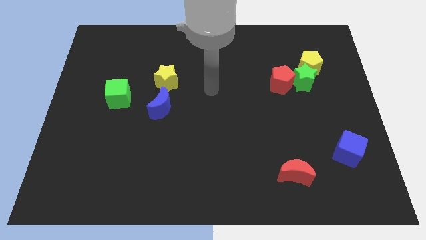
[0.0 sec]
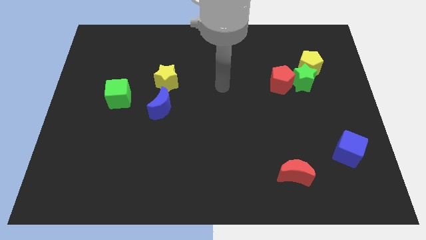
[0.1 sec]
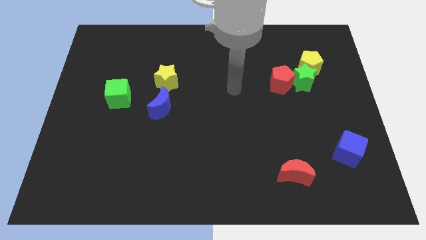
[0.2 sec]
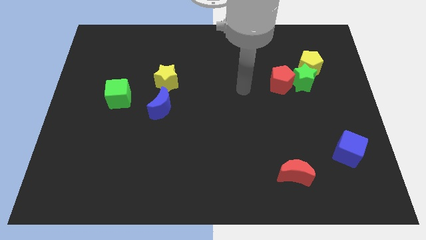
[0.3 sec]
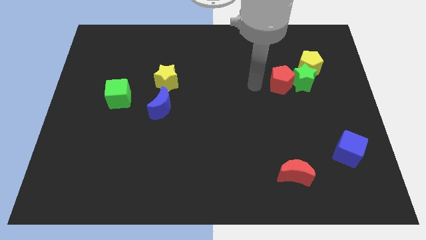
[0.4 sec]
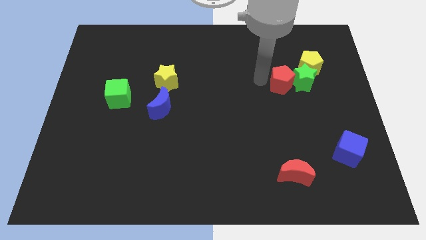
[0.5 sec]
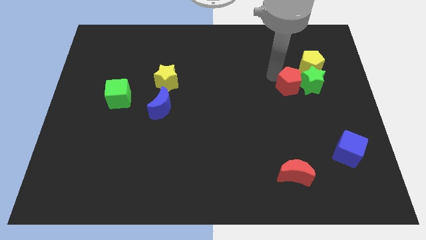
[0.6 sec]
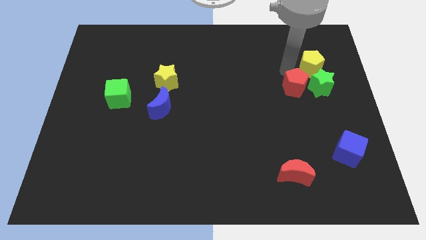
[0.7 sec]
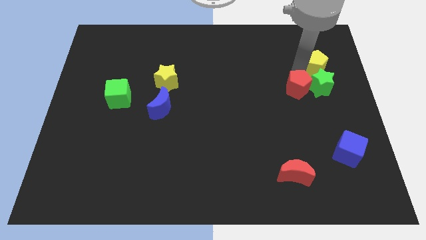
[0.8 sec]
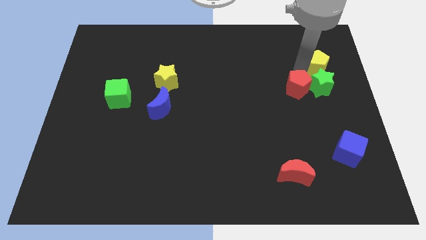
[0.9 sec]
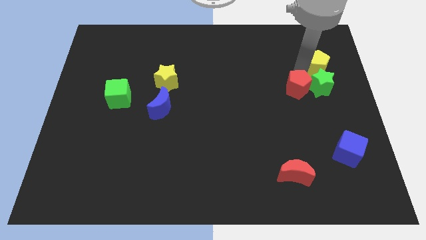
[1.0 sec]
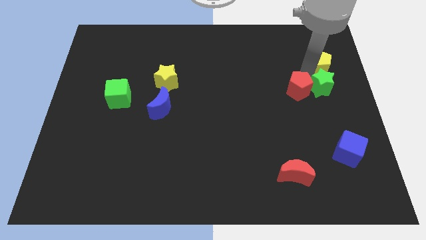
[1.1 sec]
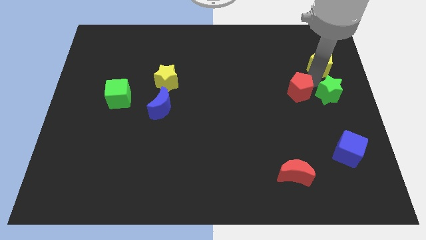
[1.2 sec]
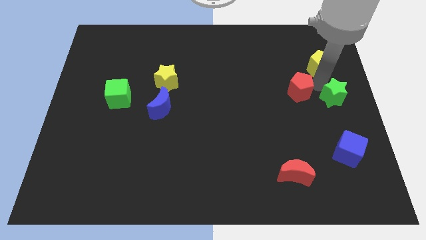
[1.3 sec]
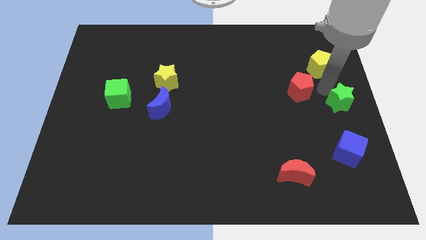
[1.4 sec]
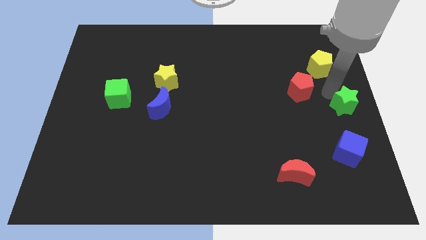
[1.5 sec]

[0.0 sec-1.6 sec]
move the green star away from the yellow pentagon and red pentagon

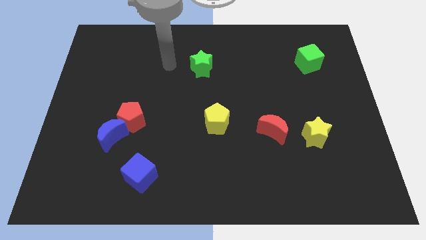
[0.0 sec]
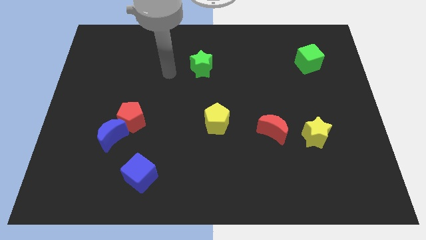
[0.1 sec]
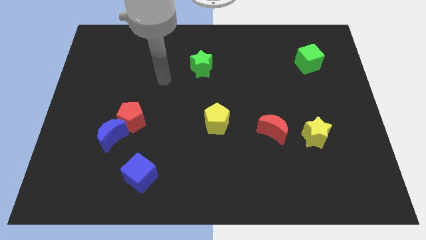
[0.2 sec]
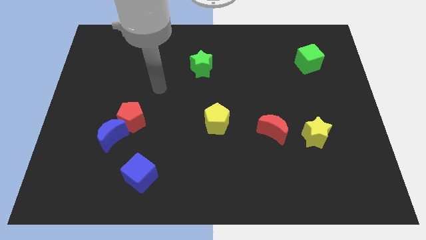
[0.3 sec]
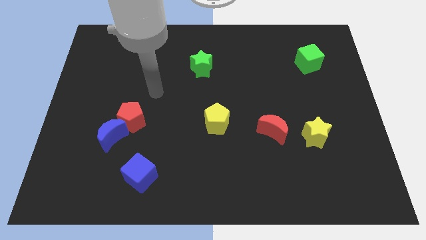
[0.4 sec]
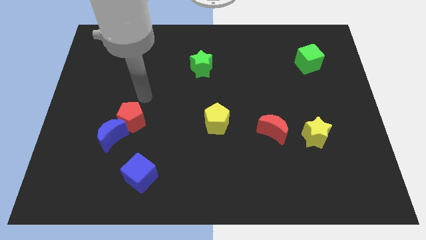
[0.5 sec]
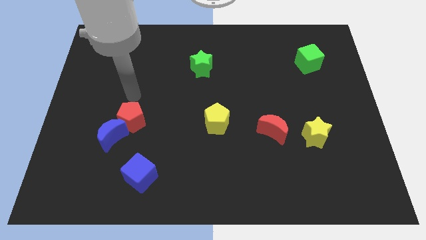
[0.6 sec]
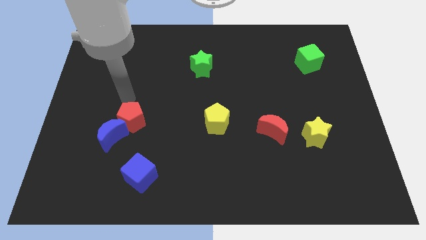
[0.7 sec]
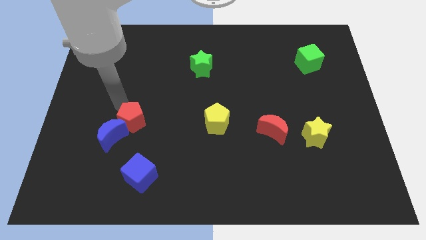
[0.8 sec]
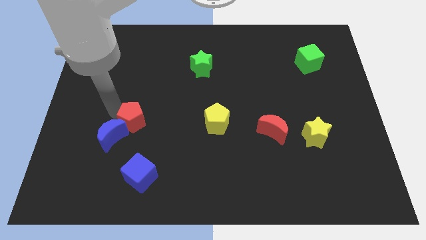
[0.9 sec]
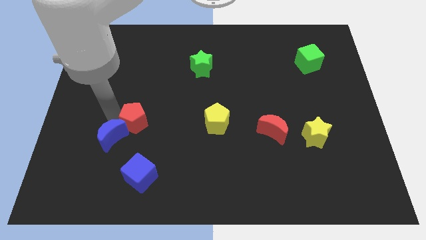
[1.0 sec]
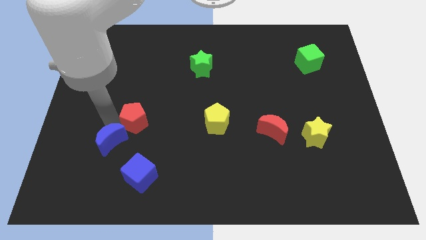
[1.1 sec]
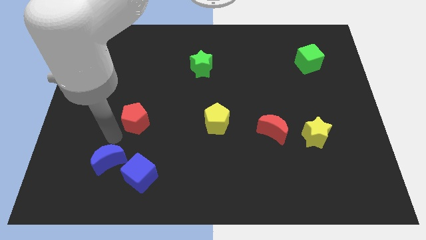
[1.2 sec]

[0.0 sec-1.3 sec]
move the red pentagon away from the blue moon

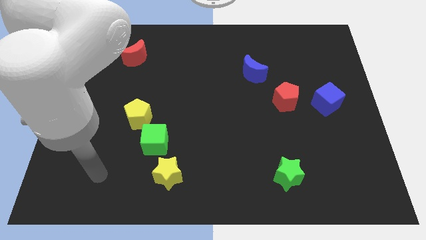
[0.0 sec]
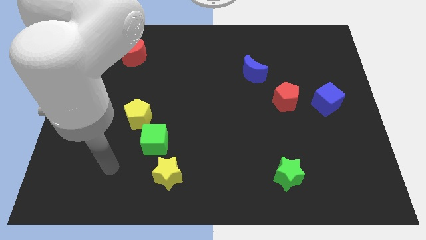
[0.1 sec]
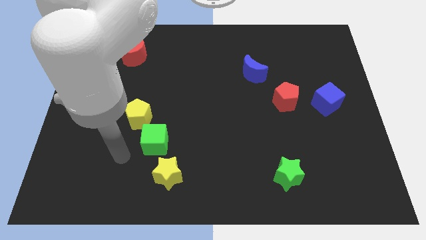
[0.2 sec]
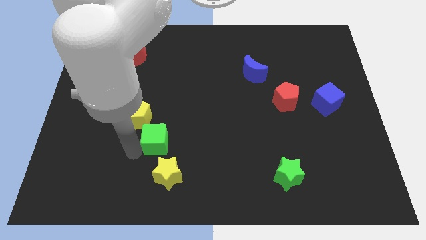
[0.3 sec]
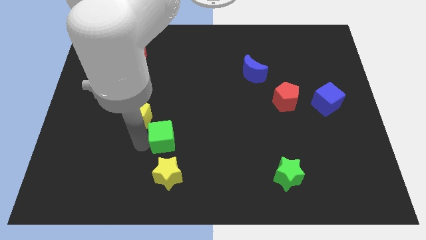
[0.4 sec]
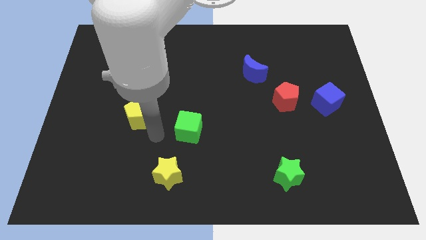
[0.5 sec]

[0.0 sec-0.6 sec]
pull the yellow pentagon apart from the green cube

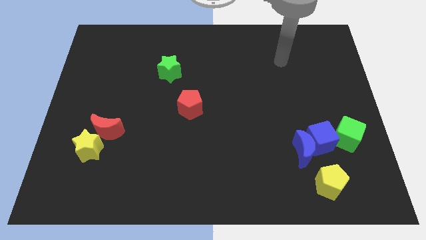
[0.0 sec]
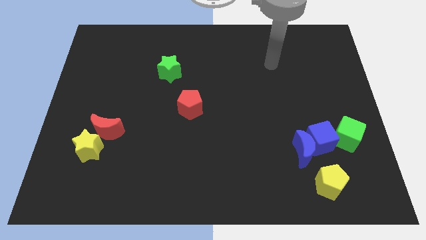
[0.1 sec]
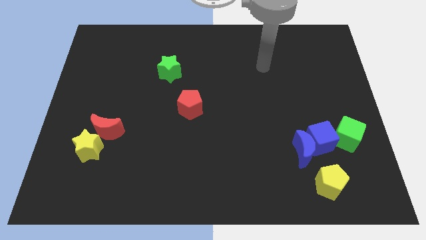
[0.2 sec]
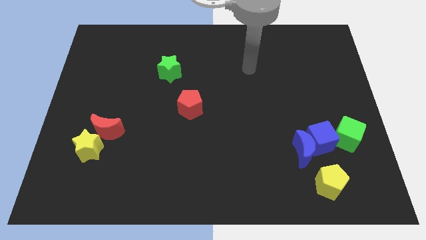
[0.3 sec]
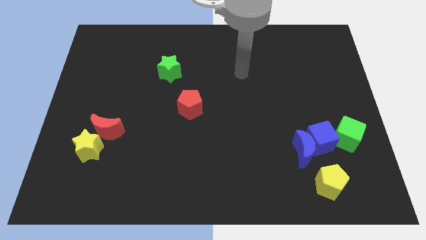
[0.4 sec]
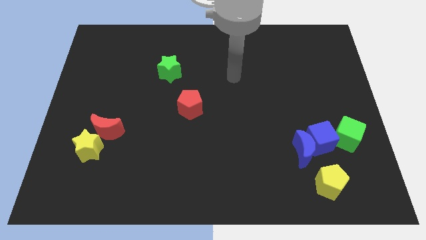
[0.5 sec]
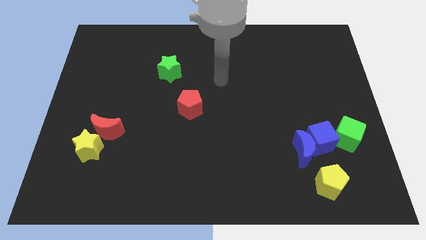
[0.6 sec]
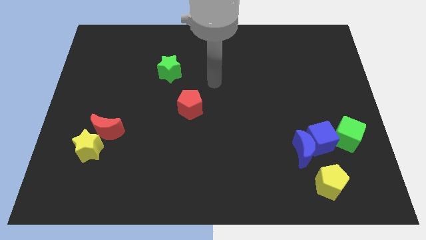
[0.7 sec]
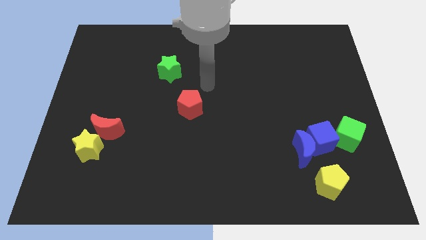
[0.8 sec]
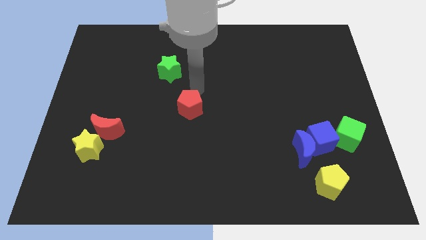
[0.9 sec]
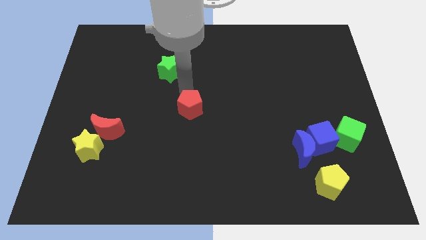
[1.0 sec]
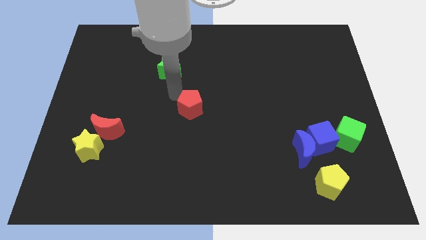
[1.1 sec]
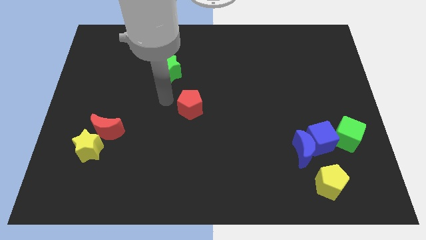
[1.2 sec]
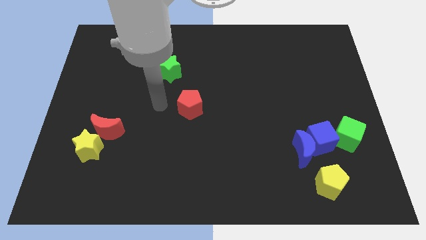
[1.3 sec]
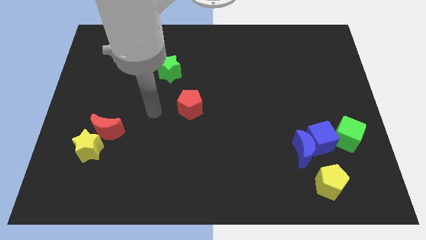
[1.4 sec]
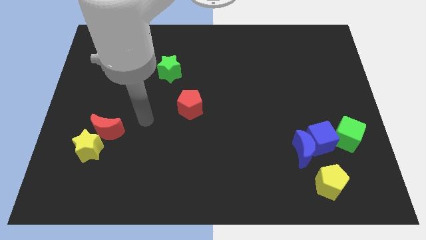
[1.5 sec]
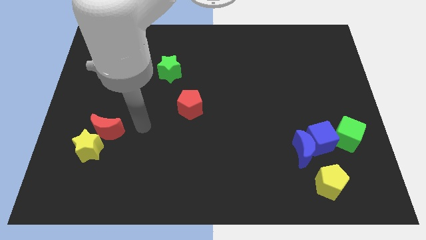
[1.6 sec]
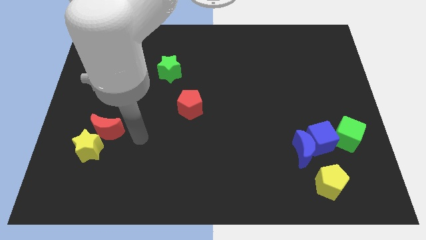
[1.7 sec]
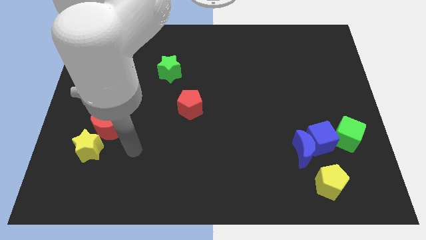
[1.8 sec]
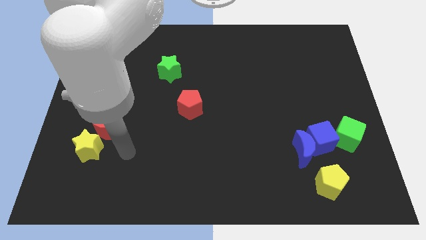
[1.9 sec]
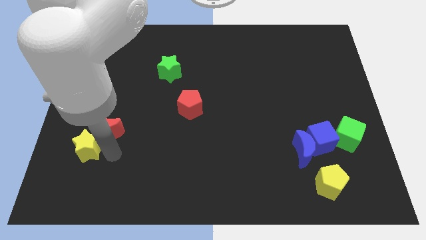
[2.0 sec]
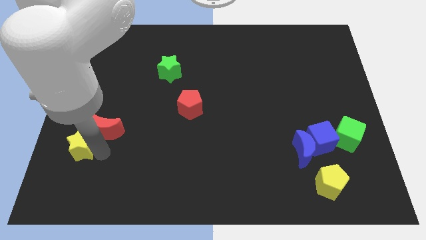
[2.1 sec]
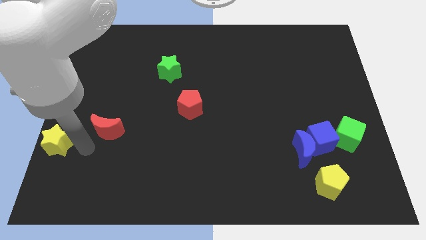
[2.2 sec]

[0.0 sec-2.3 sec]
move the red moon away from the yellow star

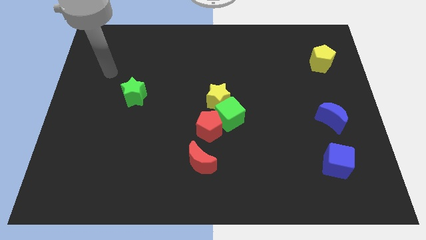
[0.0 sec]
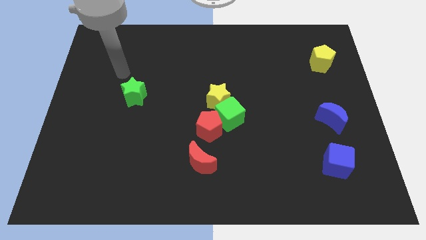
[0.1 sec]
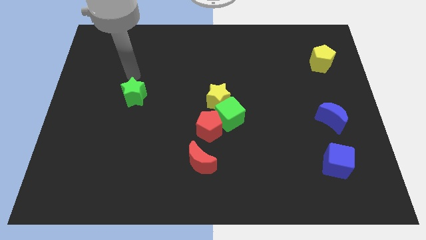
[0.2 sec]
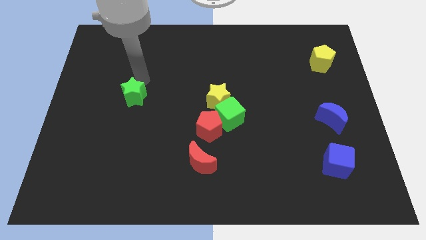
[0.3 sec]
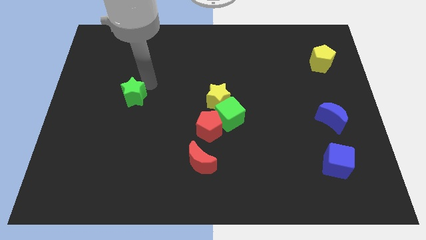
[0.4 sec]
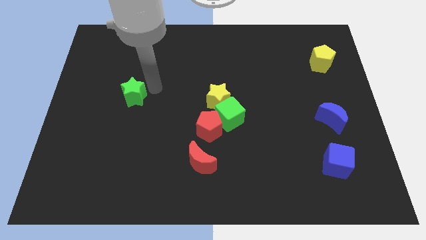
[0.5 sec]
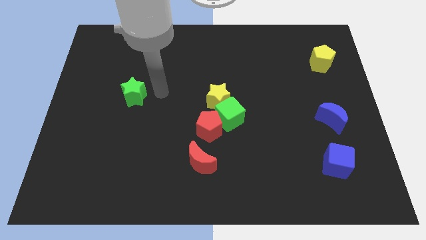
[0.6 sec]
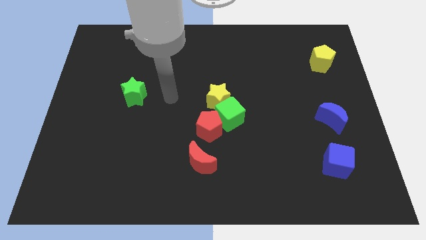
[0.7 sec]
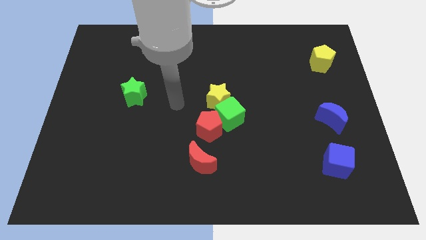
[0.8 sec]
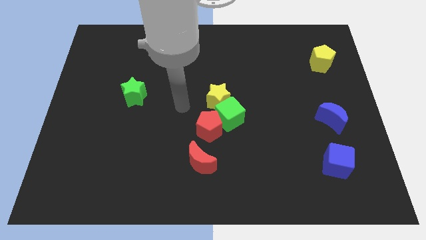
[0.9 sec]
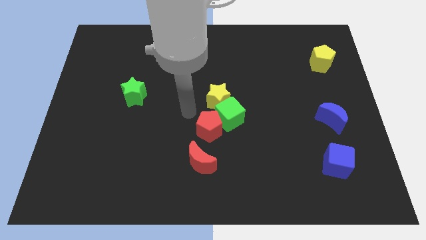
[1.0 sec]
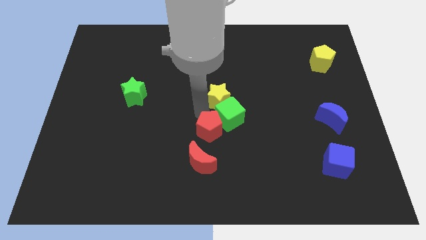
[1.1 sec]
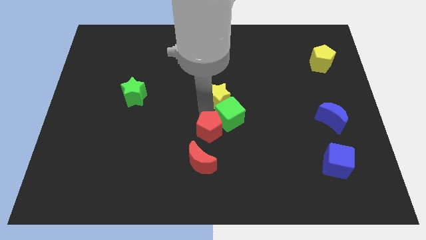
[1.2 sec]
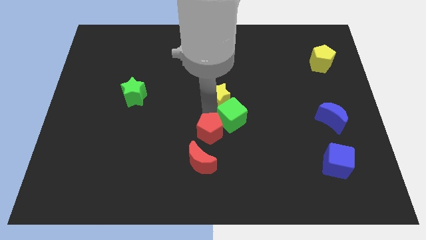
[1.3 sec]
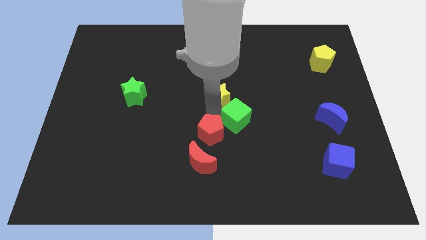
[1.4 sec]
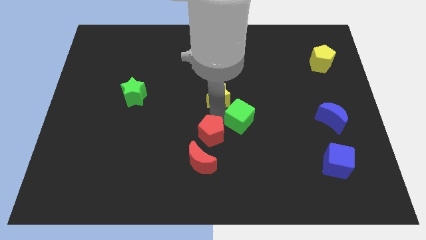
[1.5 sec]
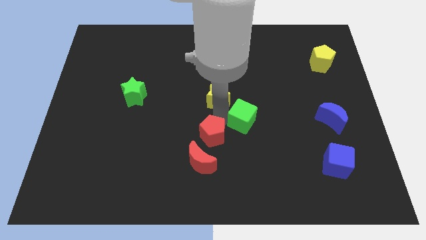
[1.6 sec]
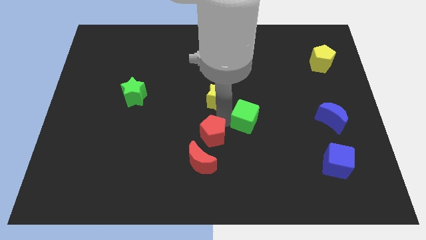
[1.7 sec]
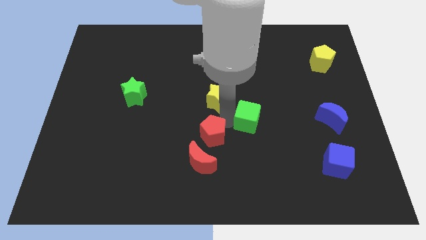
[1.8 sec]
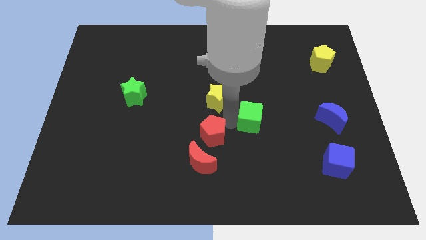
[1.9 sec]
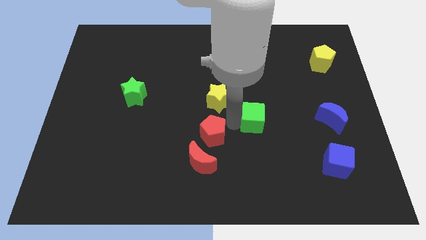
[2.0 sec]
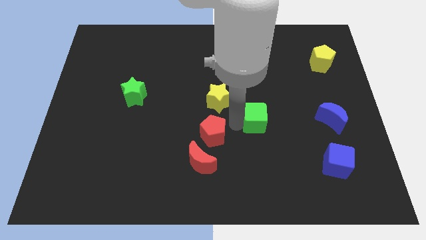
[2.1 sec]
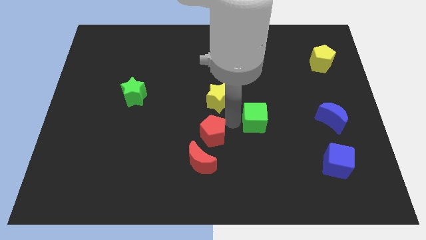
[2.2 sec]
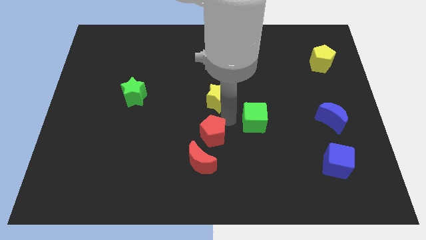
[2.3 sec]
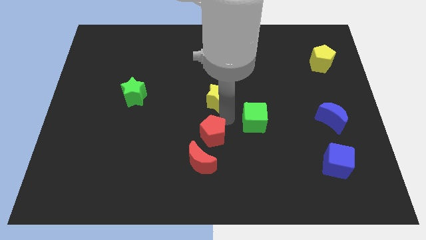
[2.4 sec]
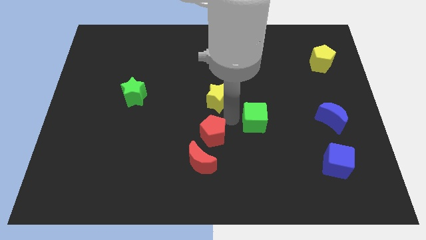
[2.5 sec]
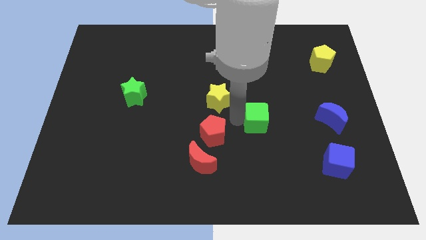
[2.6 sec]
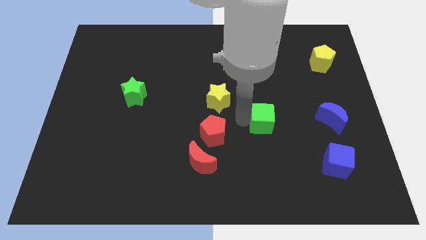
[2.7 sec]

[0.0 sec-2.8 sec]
pull the green cube apart from the yellow star and red pentagon

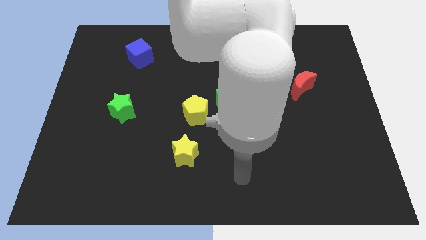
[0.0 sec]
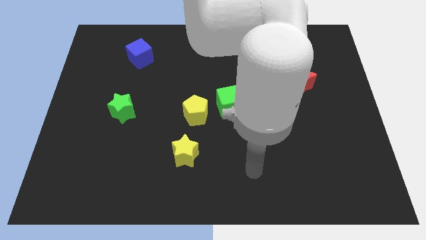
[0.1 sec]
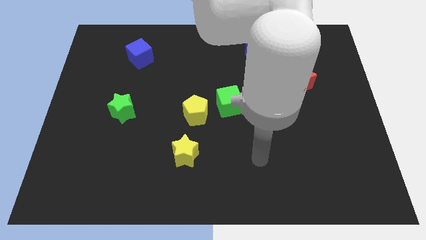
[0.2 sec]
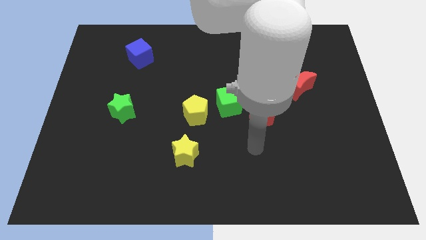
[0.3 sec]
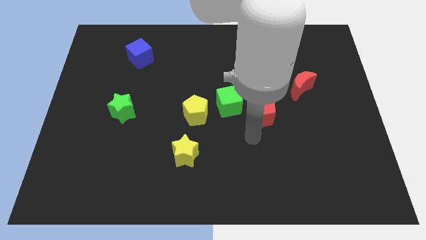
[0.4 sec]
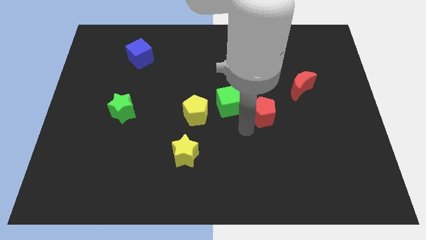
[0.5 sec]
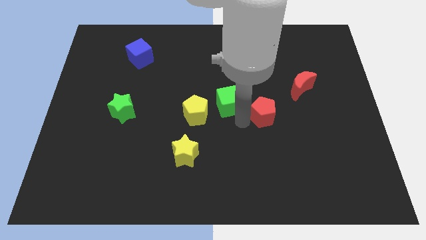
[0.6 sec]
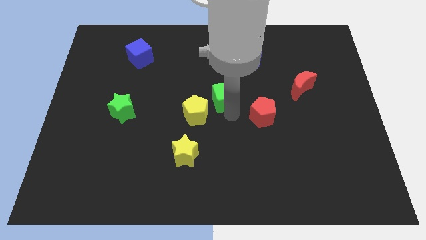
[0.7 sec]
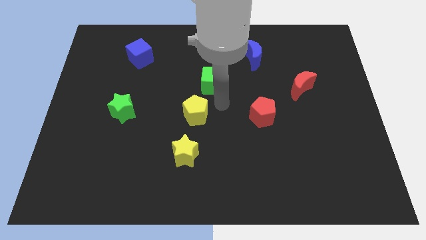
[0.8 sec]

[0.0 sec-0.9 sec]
move the yellow pentagon away from the green cube
